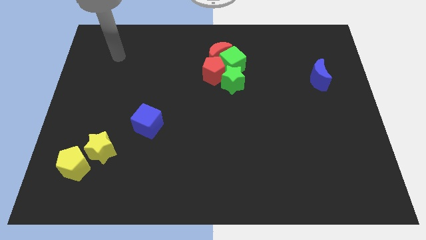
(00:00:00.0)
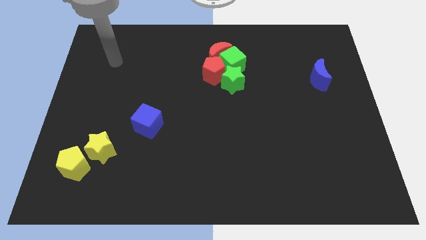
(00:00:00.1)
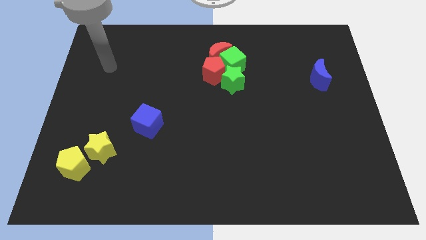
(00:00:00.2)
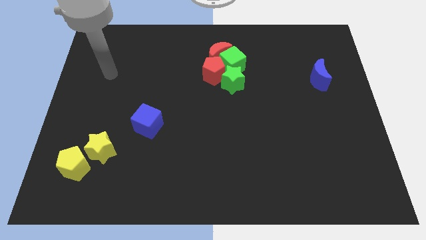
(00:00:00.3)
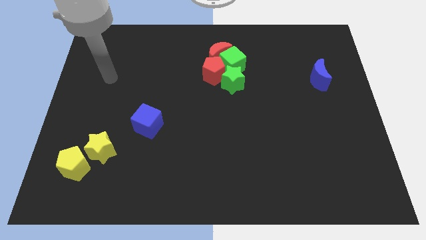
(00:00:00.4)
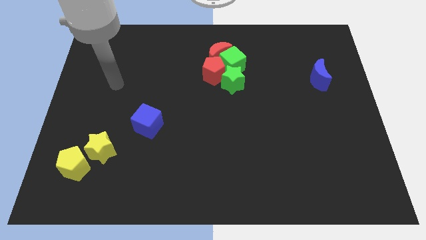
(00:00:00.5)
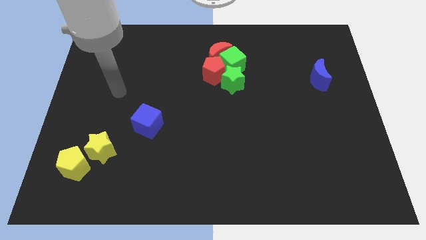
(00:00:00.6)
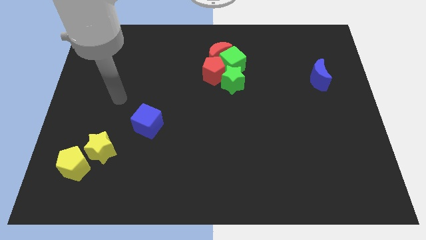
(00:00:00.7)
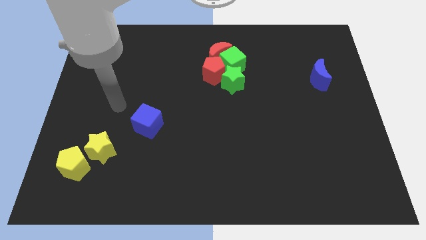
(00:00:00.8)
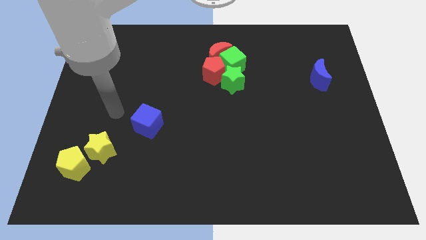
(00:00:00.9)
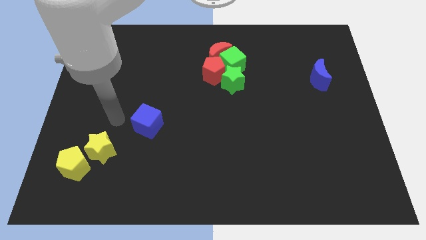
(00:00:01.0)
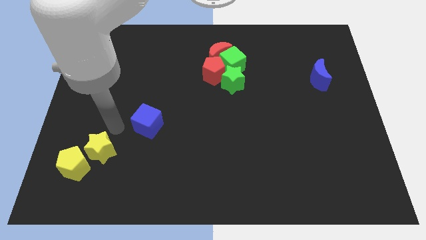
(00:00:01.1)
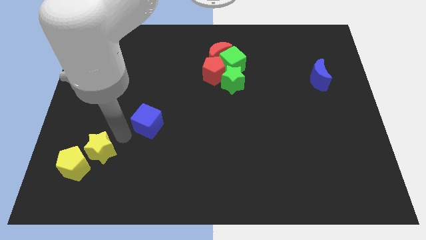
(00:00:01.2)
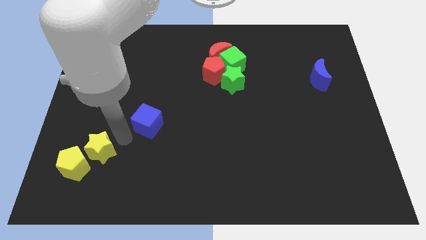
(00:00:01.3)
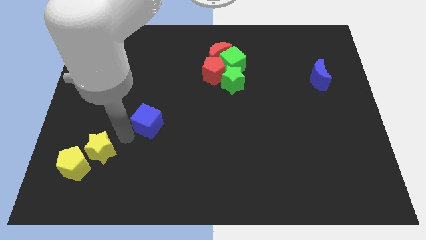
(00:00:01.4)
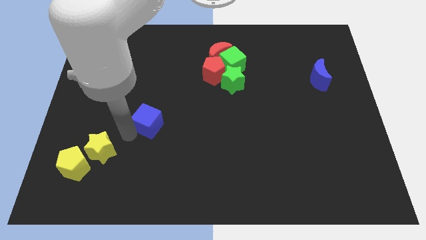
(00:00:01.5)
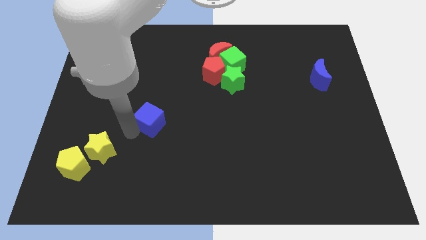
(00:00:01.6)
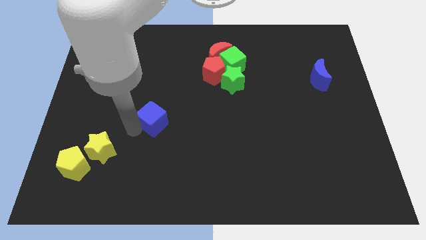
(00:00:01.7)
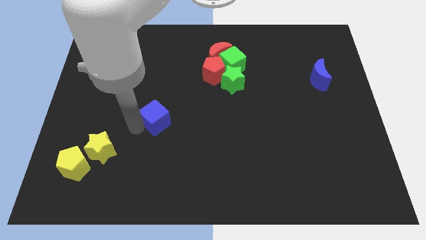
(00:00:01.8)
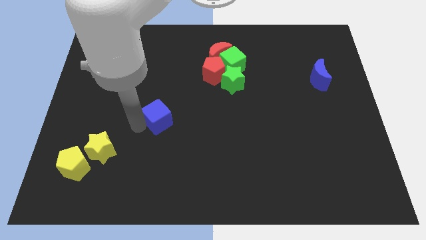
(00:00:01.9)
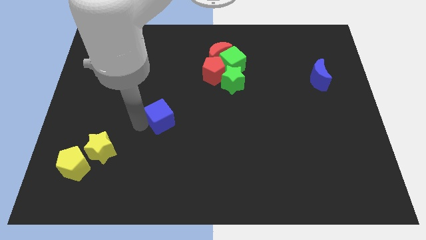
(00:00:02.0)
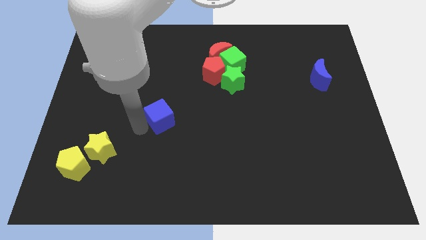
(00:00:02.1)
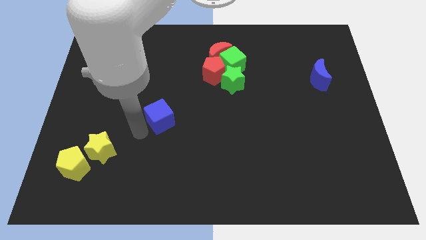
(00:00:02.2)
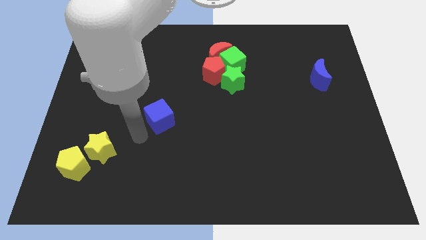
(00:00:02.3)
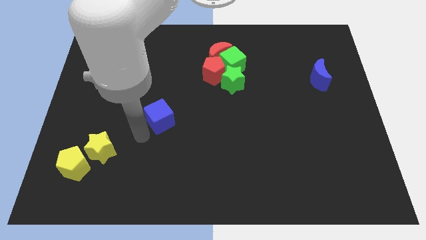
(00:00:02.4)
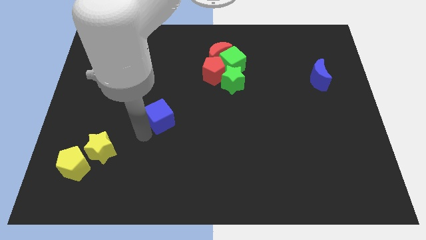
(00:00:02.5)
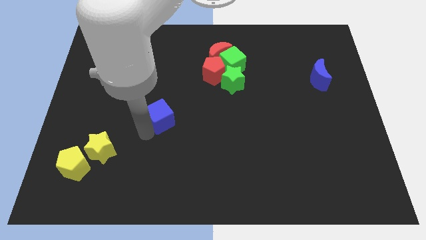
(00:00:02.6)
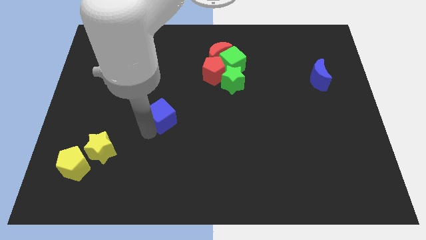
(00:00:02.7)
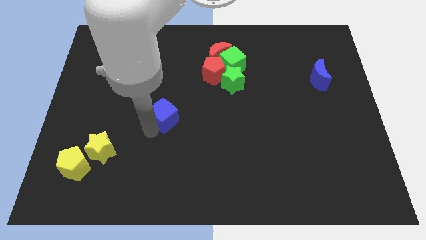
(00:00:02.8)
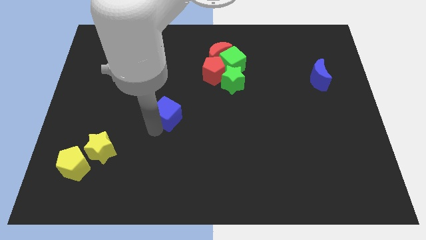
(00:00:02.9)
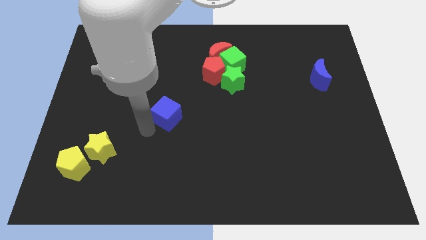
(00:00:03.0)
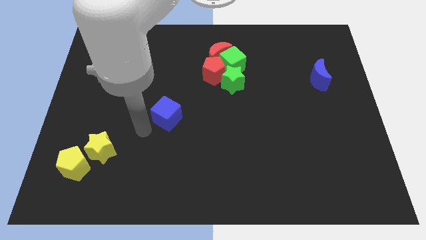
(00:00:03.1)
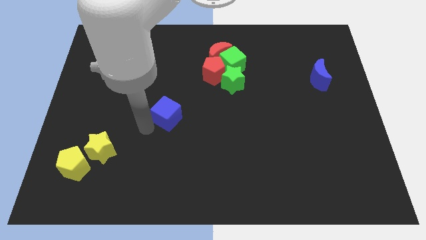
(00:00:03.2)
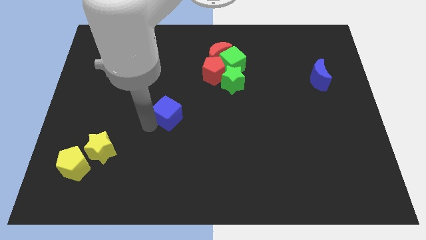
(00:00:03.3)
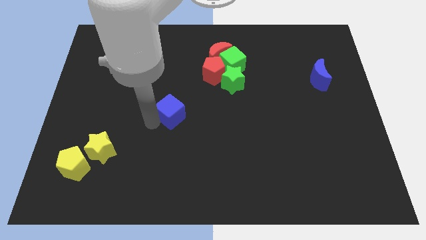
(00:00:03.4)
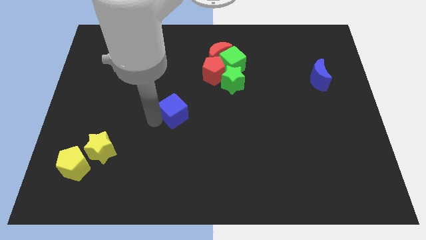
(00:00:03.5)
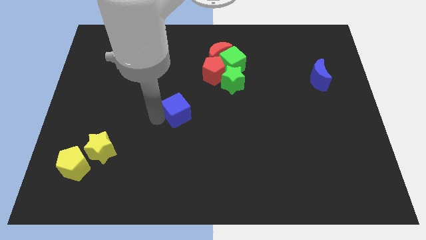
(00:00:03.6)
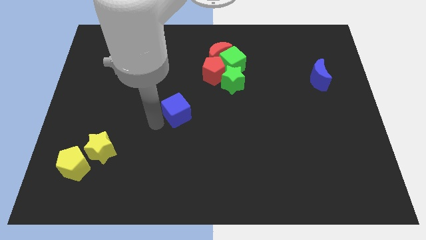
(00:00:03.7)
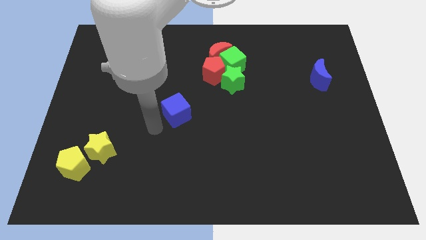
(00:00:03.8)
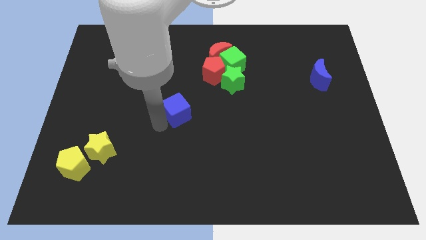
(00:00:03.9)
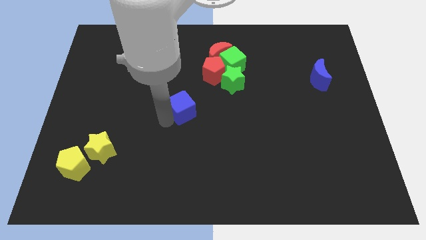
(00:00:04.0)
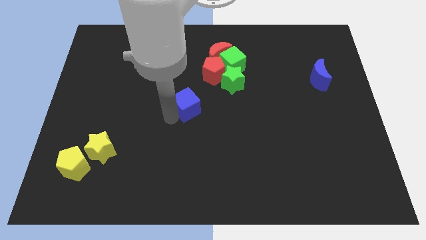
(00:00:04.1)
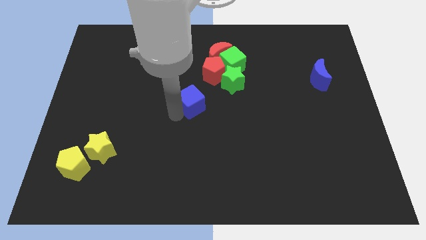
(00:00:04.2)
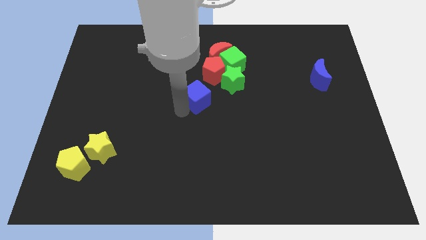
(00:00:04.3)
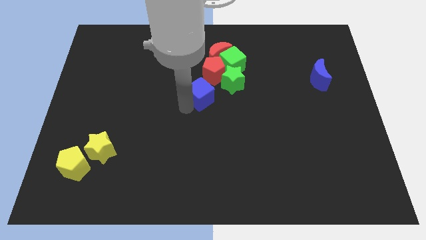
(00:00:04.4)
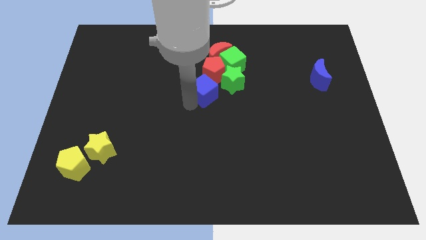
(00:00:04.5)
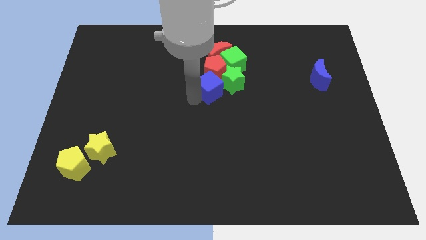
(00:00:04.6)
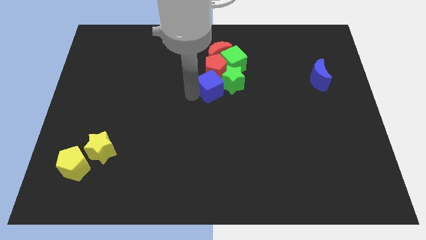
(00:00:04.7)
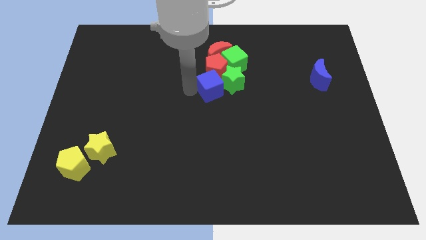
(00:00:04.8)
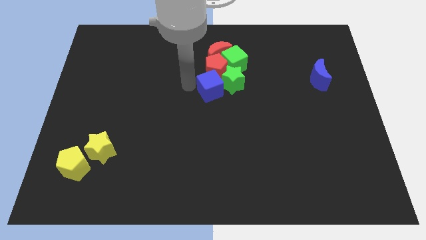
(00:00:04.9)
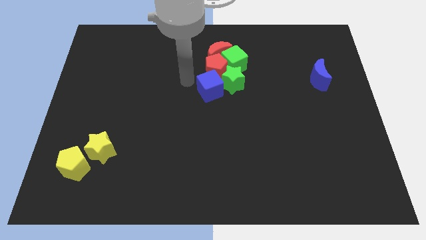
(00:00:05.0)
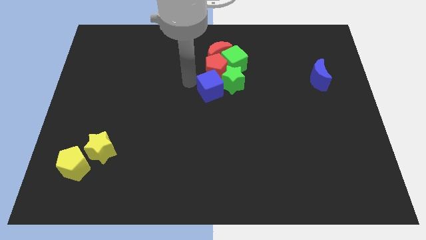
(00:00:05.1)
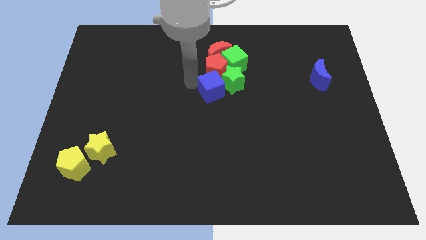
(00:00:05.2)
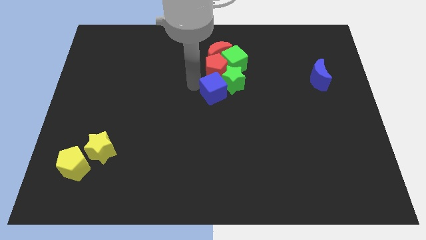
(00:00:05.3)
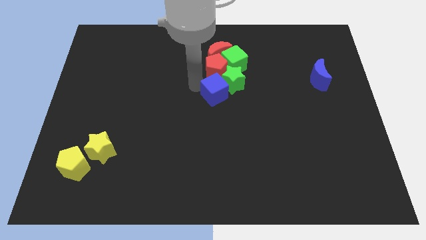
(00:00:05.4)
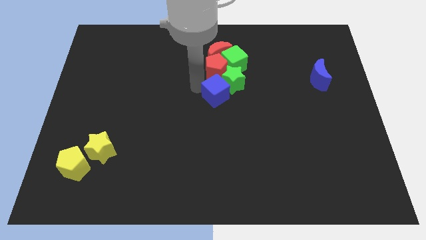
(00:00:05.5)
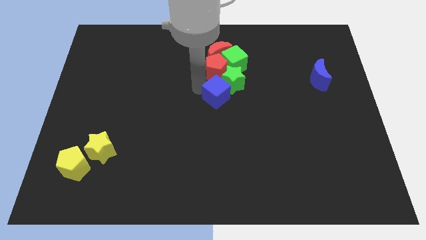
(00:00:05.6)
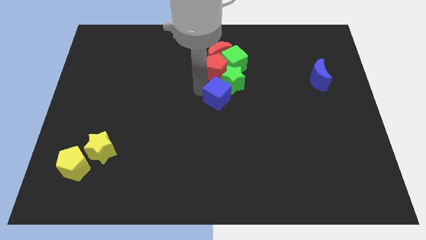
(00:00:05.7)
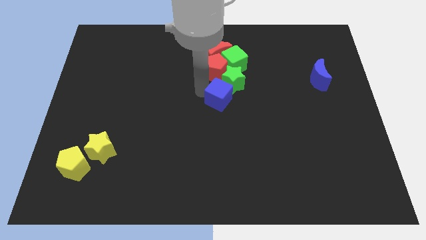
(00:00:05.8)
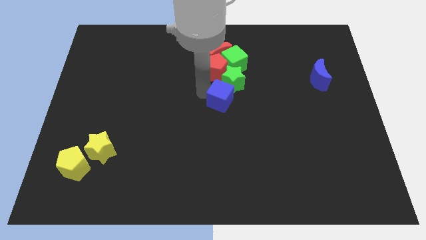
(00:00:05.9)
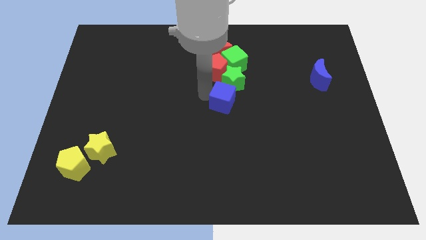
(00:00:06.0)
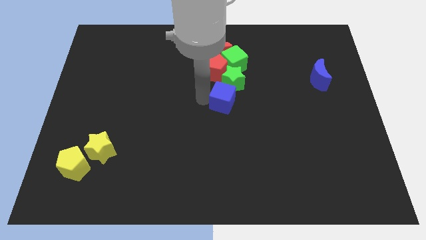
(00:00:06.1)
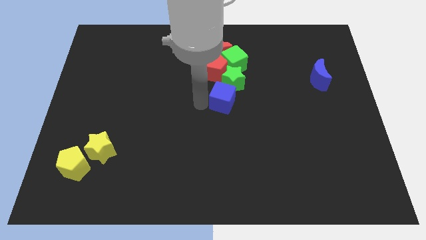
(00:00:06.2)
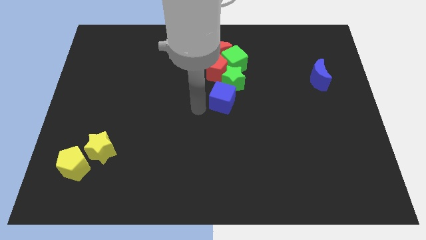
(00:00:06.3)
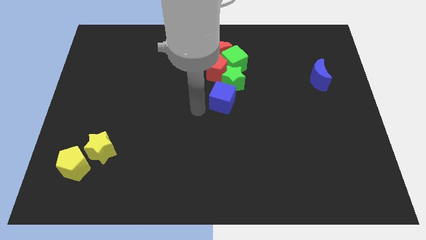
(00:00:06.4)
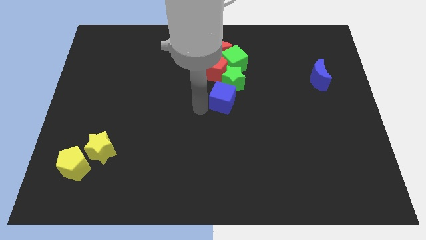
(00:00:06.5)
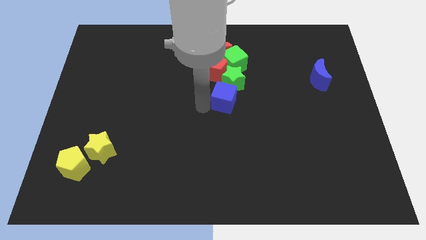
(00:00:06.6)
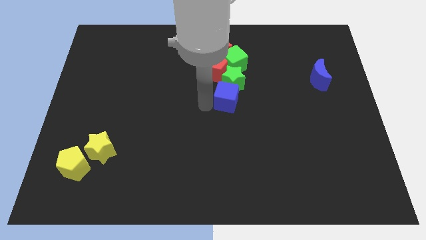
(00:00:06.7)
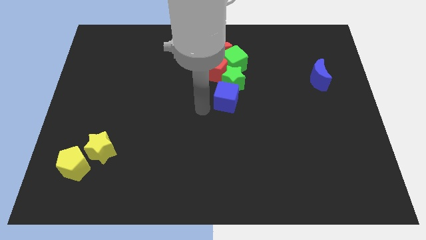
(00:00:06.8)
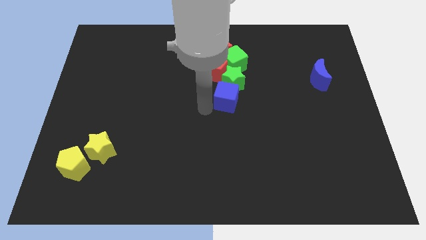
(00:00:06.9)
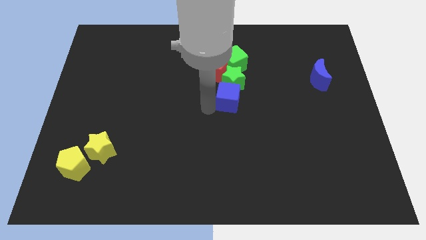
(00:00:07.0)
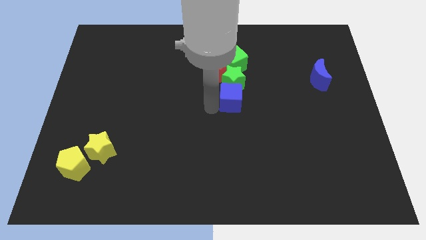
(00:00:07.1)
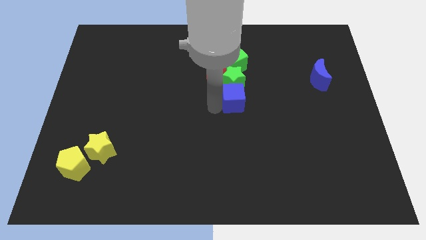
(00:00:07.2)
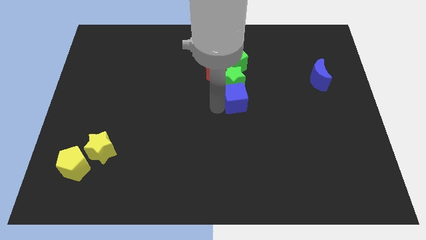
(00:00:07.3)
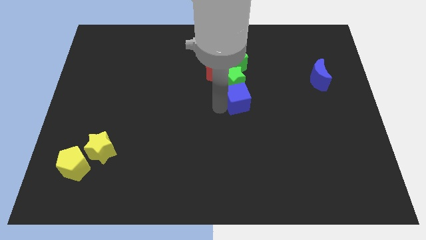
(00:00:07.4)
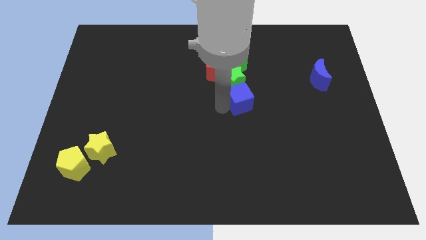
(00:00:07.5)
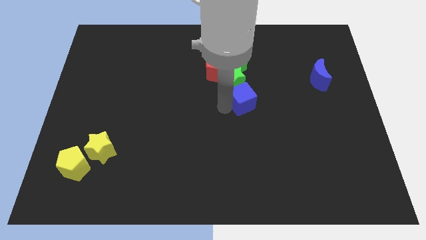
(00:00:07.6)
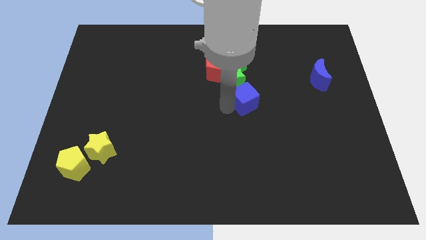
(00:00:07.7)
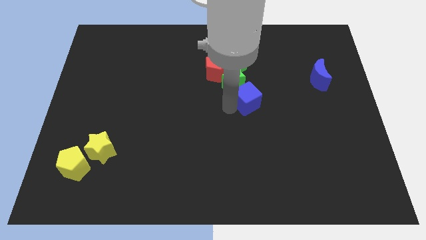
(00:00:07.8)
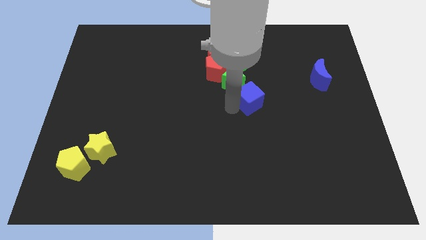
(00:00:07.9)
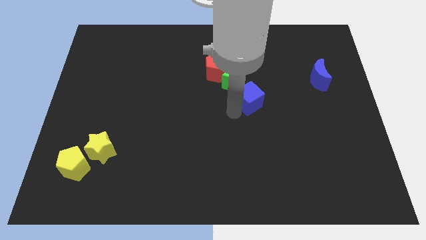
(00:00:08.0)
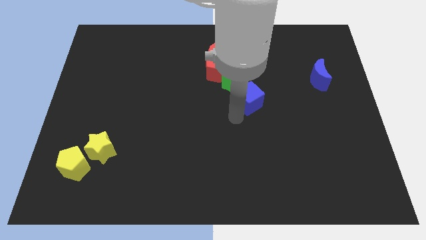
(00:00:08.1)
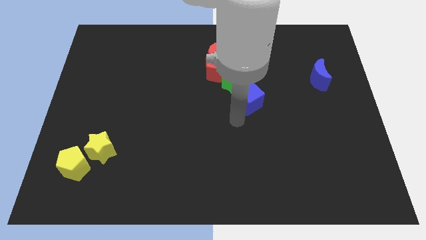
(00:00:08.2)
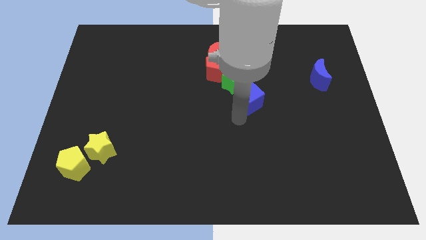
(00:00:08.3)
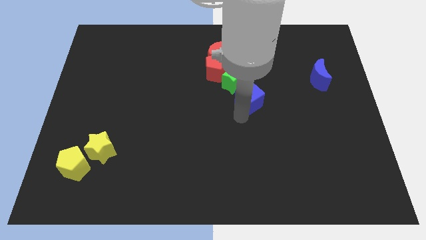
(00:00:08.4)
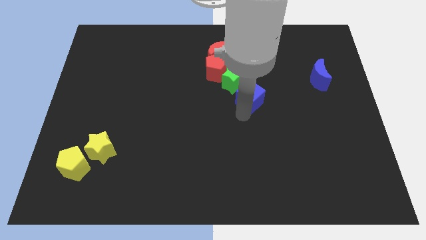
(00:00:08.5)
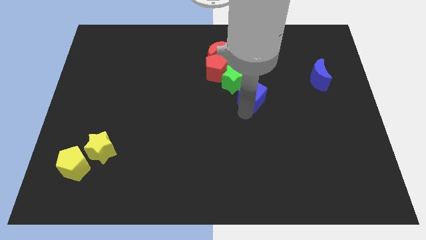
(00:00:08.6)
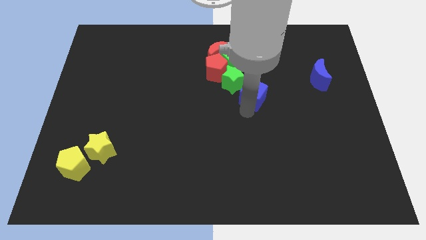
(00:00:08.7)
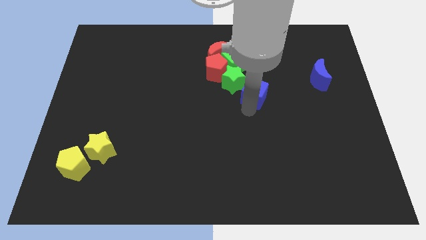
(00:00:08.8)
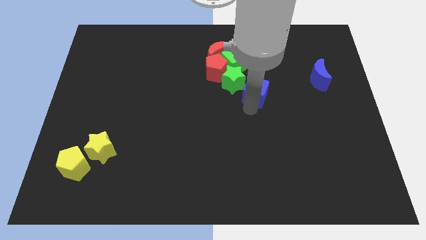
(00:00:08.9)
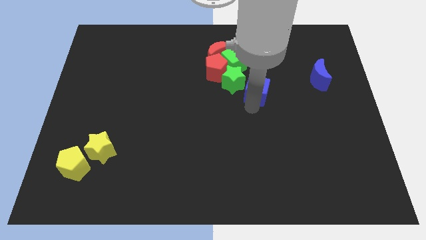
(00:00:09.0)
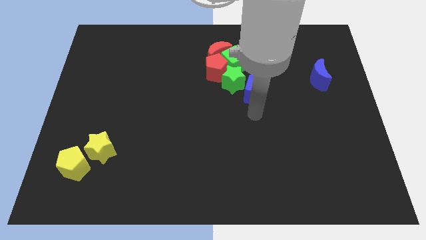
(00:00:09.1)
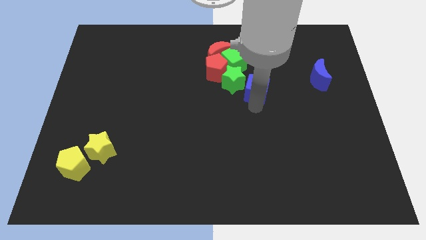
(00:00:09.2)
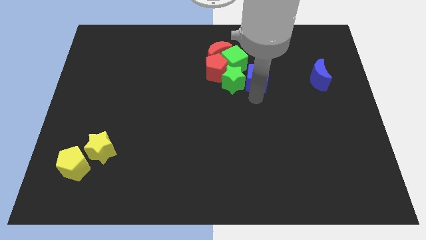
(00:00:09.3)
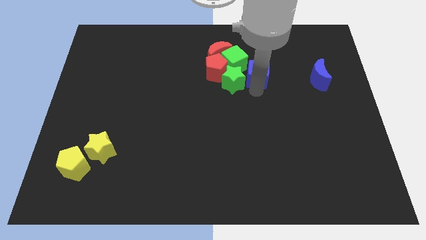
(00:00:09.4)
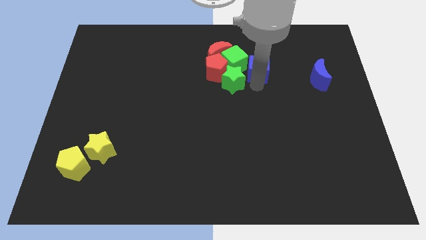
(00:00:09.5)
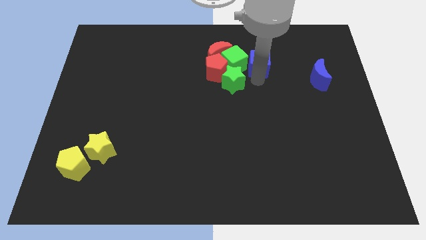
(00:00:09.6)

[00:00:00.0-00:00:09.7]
push the blue cube right of the red moon
